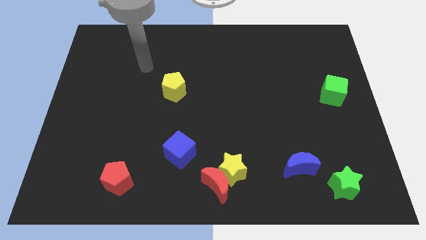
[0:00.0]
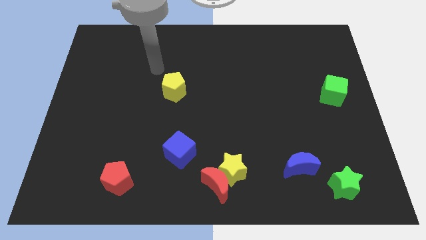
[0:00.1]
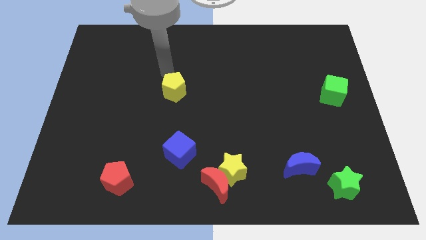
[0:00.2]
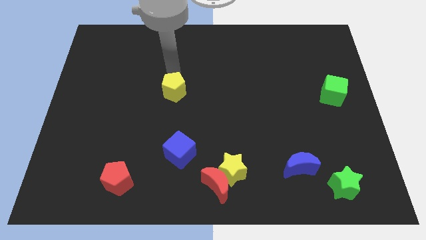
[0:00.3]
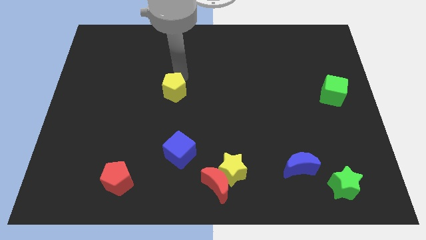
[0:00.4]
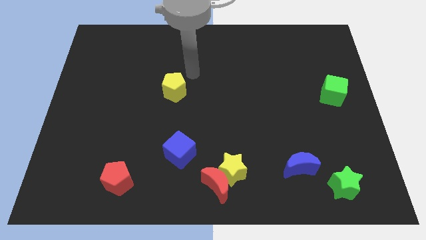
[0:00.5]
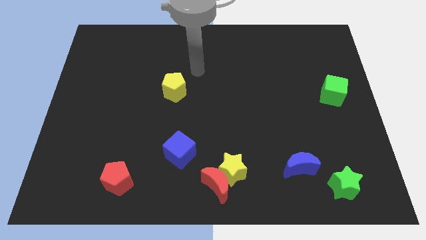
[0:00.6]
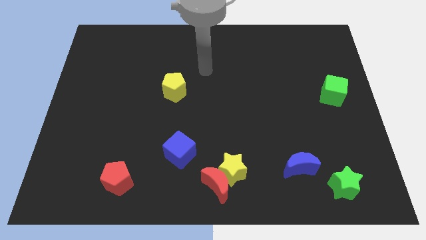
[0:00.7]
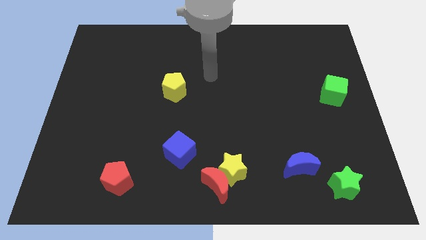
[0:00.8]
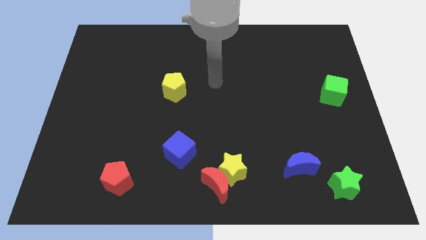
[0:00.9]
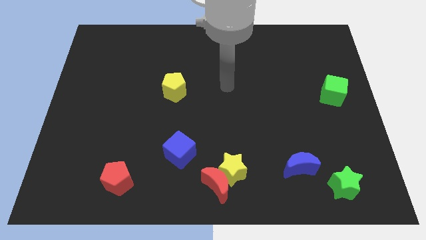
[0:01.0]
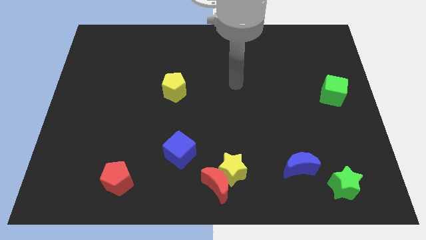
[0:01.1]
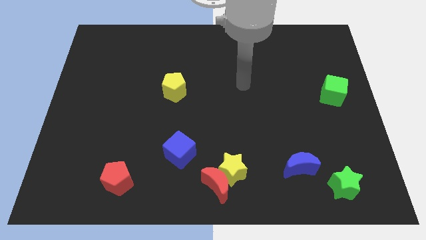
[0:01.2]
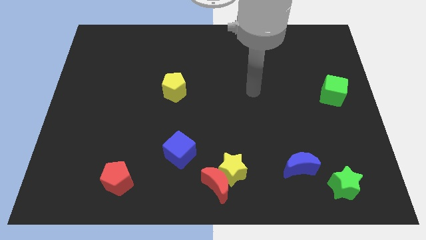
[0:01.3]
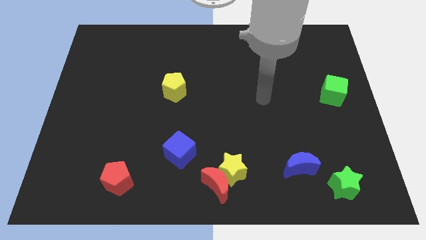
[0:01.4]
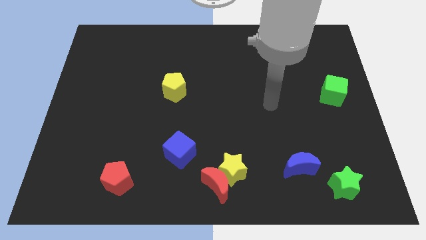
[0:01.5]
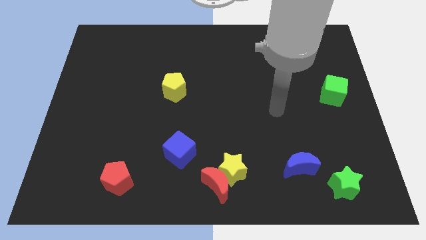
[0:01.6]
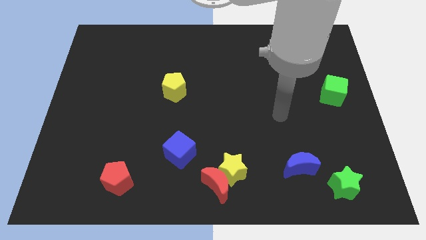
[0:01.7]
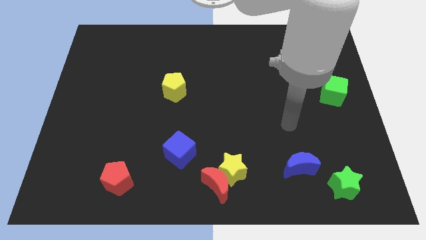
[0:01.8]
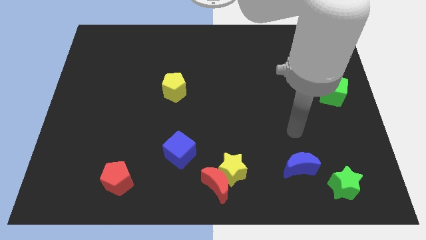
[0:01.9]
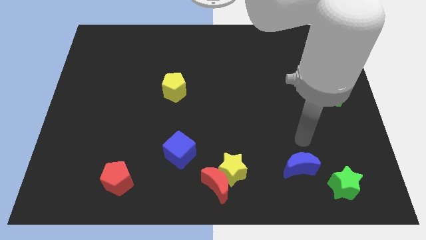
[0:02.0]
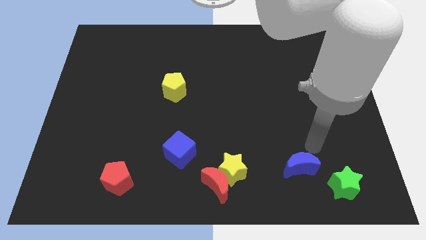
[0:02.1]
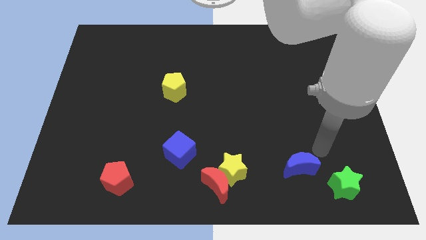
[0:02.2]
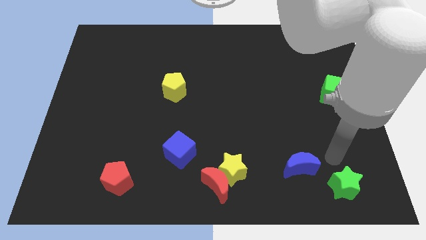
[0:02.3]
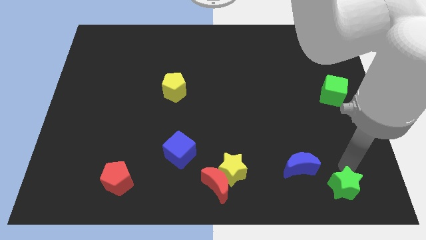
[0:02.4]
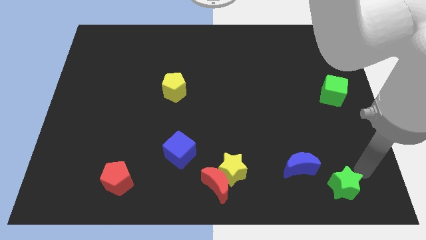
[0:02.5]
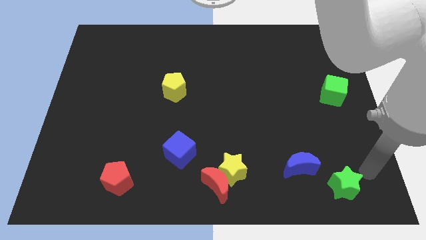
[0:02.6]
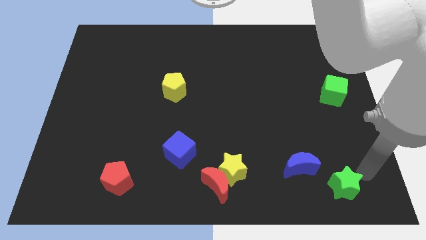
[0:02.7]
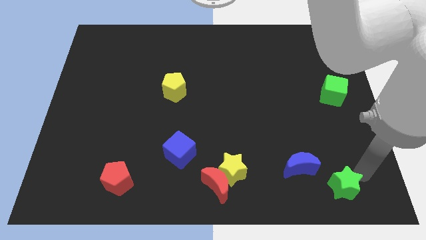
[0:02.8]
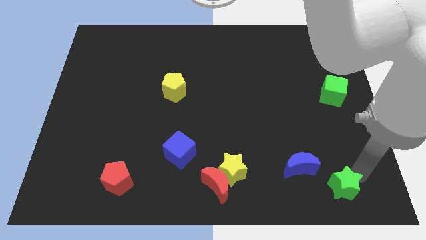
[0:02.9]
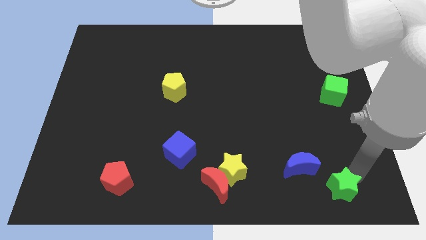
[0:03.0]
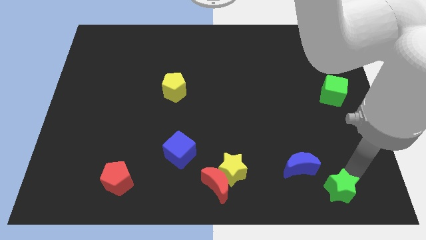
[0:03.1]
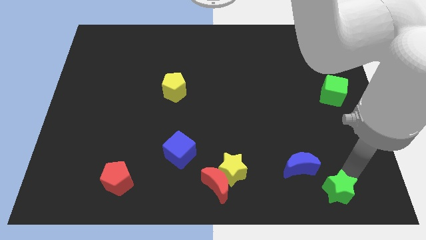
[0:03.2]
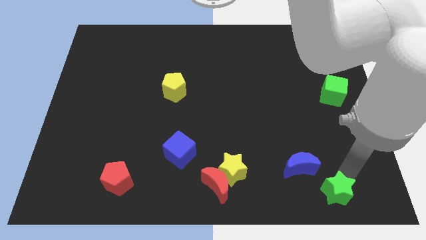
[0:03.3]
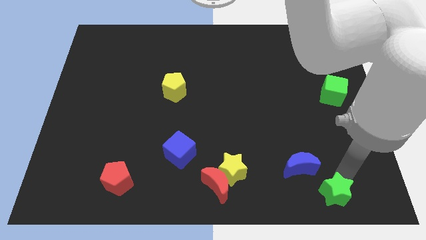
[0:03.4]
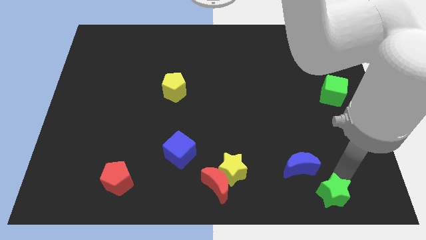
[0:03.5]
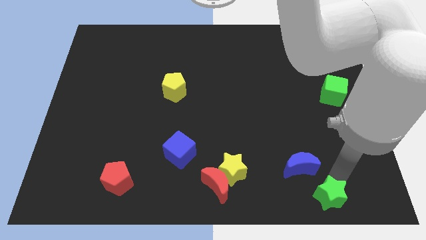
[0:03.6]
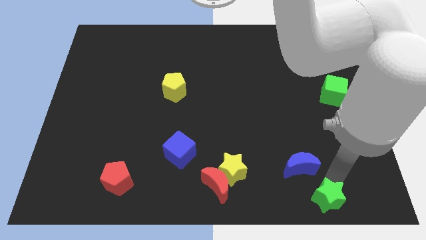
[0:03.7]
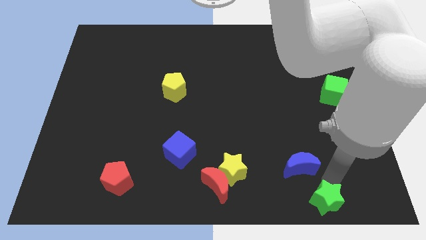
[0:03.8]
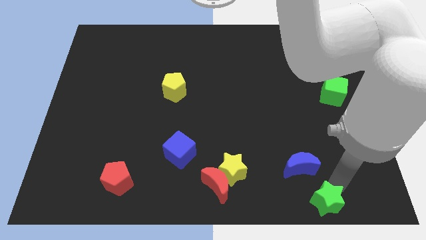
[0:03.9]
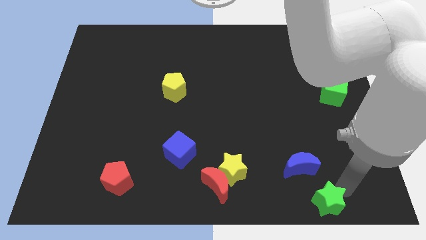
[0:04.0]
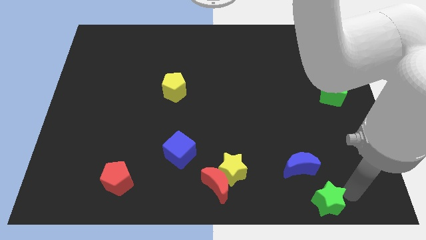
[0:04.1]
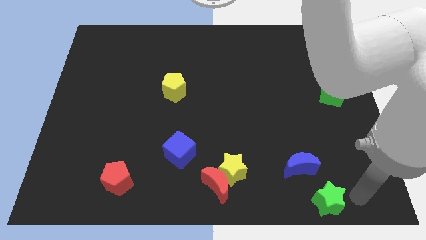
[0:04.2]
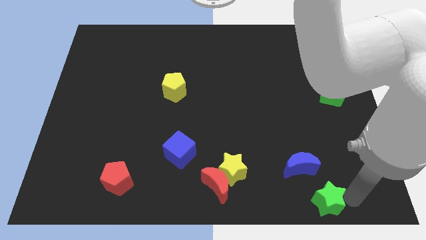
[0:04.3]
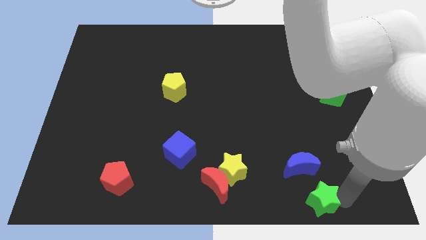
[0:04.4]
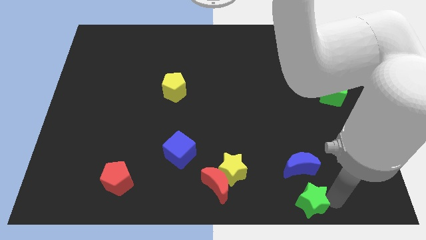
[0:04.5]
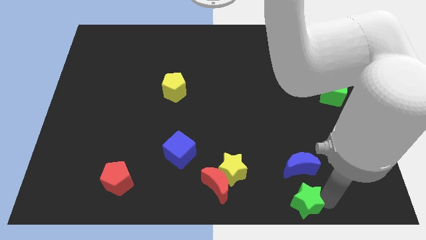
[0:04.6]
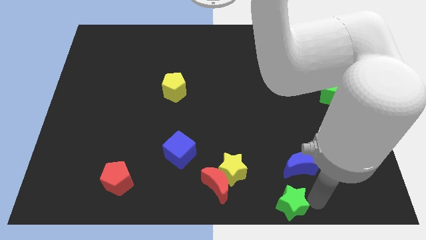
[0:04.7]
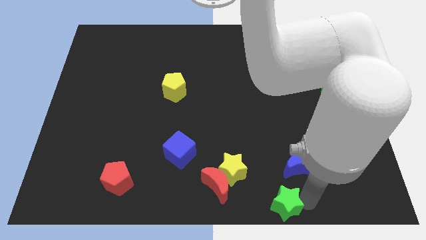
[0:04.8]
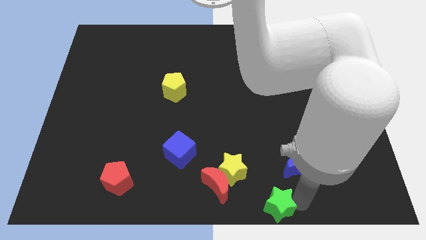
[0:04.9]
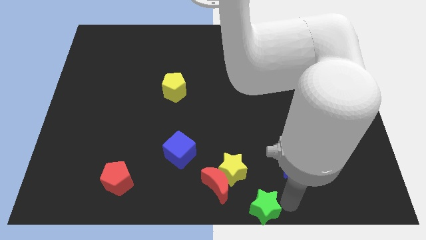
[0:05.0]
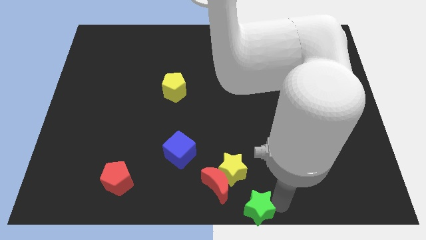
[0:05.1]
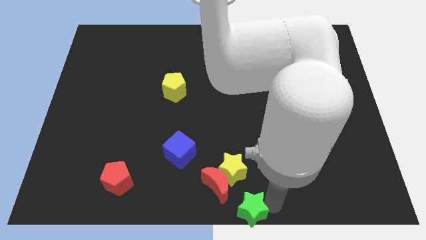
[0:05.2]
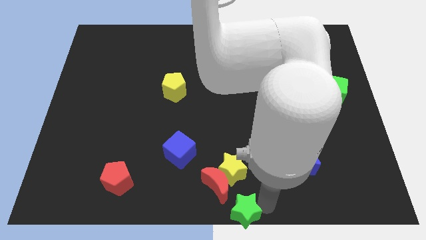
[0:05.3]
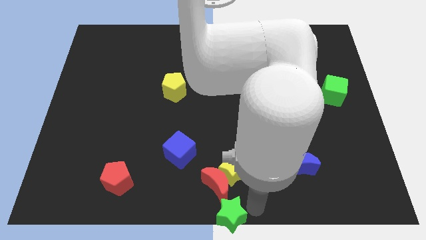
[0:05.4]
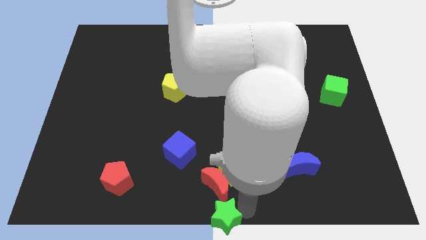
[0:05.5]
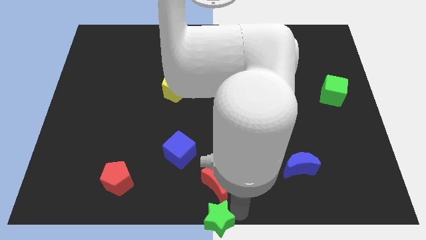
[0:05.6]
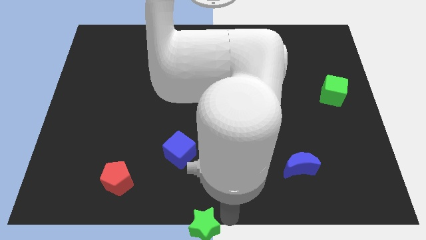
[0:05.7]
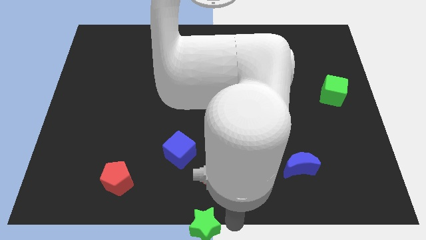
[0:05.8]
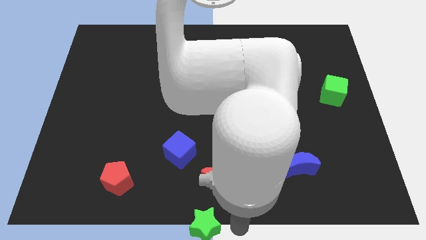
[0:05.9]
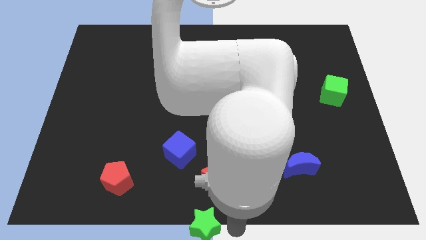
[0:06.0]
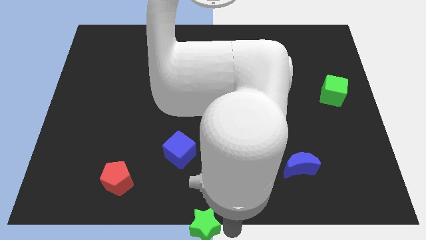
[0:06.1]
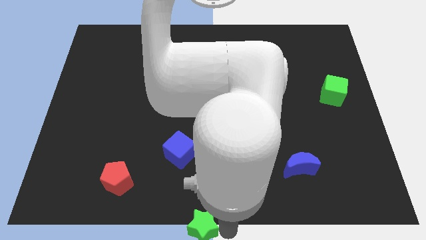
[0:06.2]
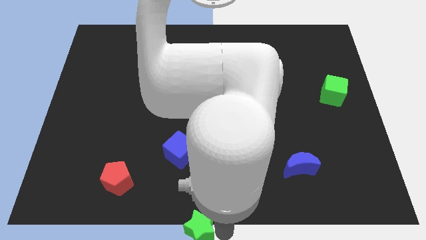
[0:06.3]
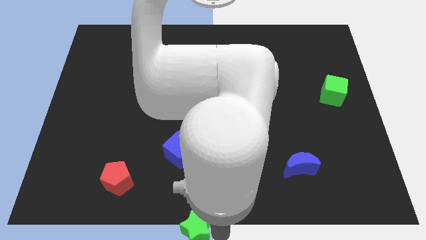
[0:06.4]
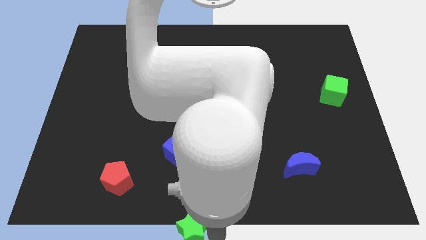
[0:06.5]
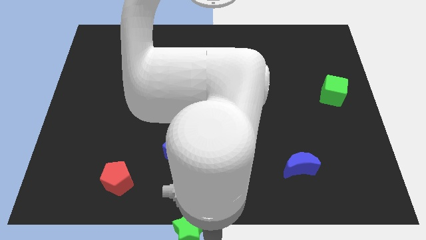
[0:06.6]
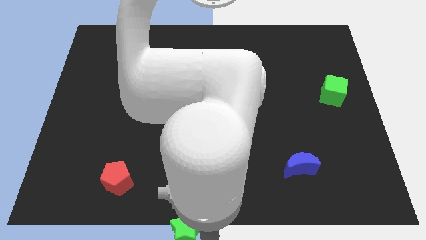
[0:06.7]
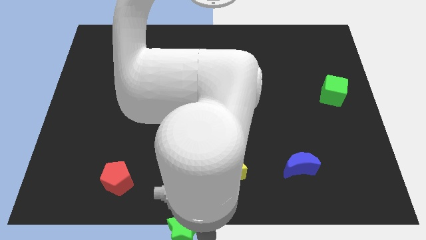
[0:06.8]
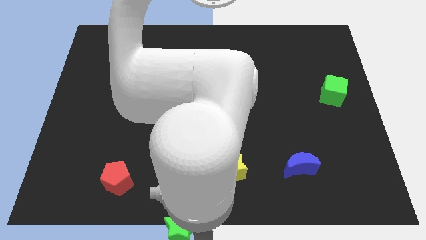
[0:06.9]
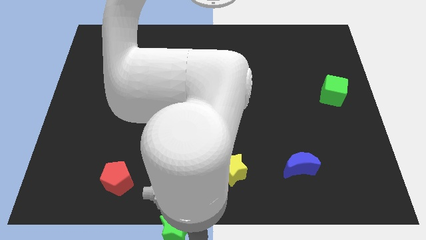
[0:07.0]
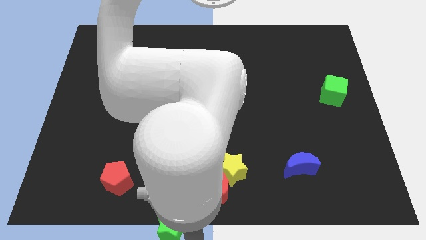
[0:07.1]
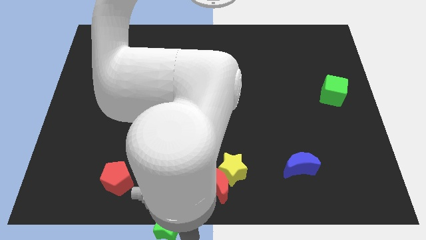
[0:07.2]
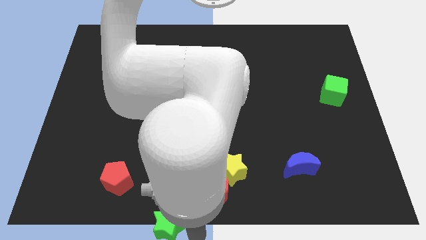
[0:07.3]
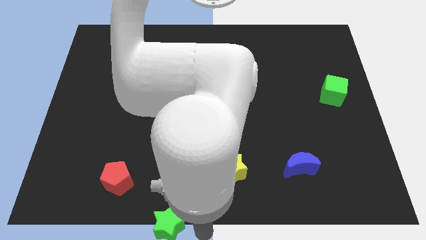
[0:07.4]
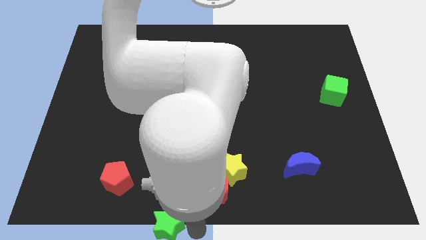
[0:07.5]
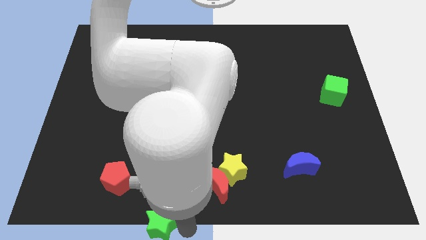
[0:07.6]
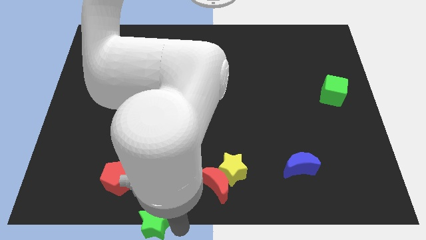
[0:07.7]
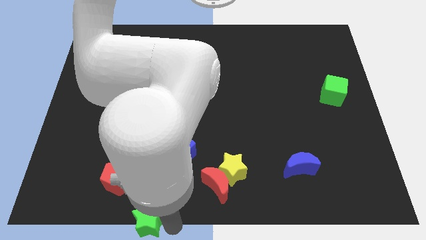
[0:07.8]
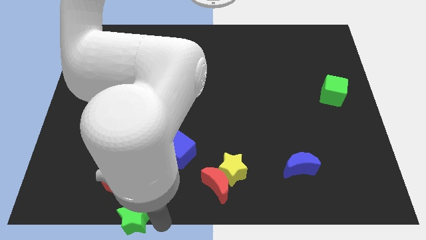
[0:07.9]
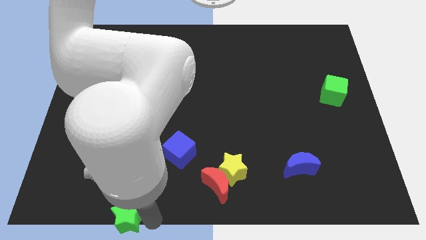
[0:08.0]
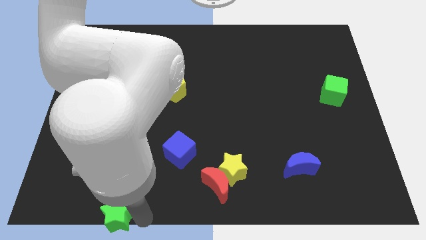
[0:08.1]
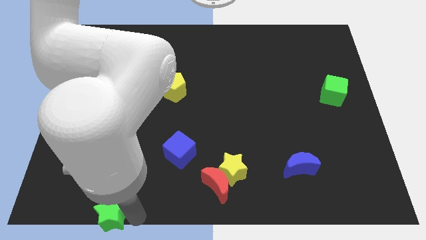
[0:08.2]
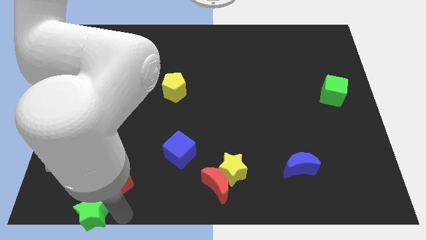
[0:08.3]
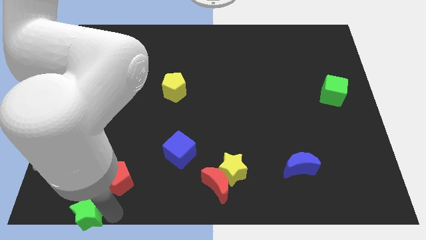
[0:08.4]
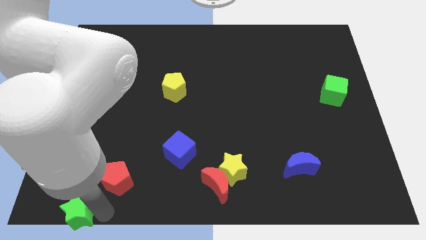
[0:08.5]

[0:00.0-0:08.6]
push the green star to the bottom left of the board
